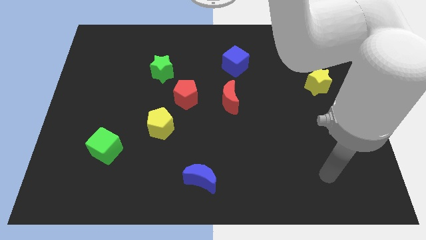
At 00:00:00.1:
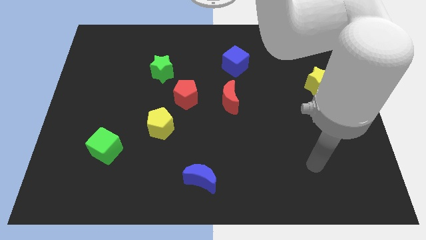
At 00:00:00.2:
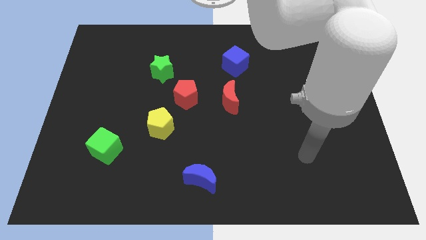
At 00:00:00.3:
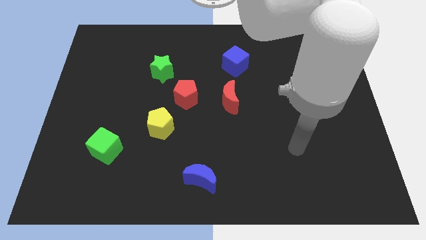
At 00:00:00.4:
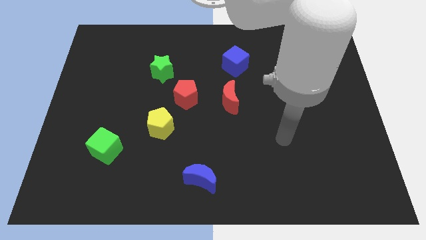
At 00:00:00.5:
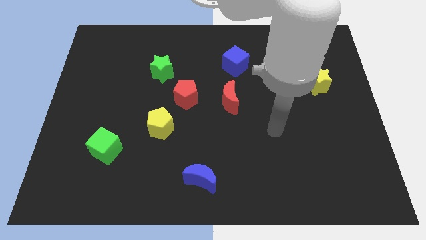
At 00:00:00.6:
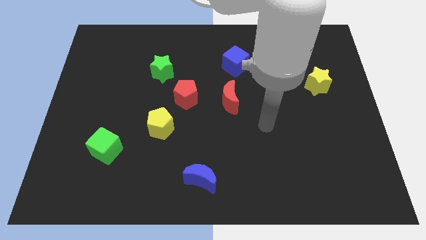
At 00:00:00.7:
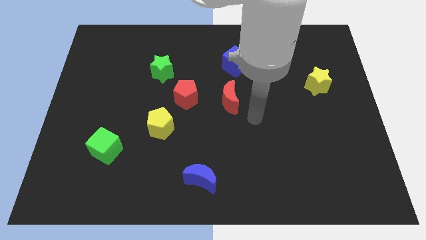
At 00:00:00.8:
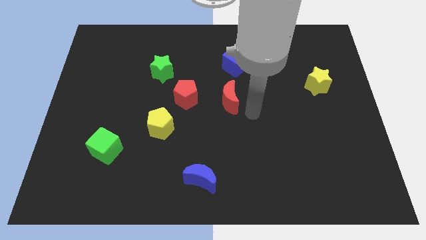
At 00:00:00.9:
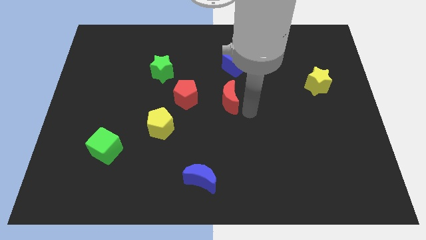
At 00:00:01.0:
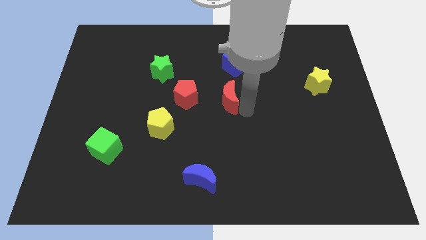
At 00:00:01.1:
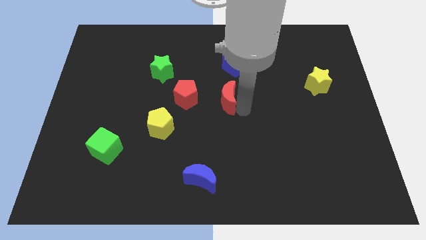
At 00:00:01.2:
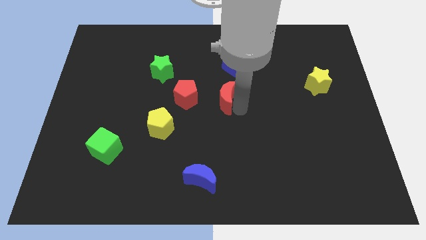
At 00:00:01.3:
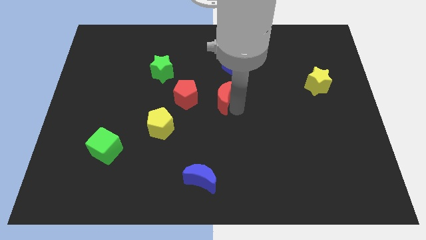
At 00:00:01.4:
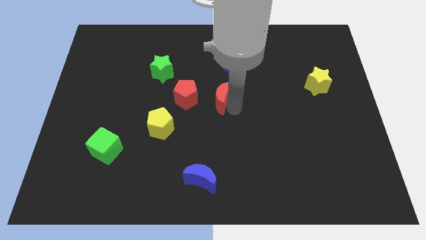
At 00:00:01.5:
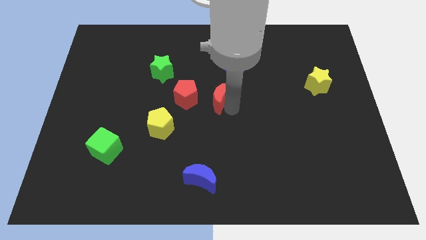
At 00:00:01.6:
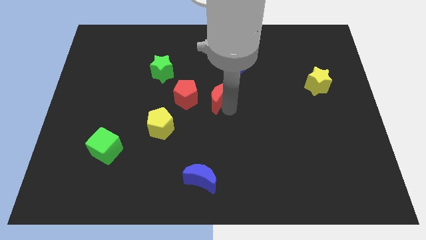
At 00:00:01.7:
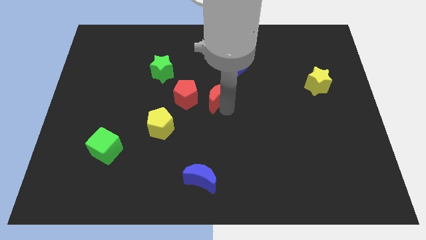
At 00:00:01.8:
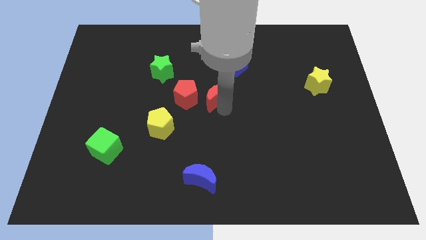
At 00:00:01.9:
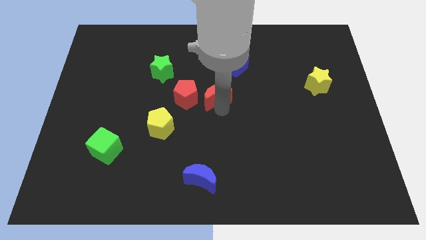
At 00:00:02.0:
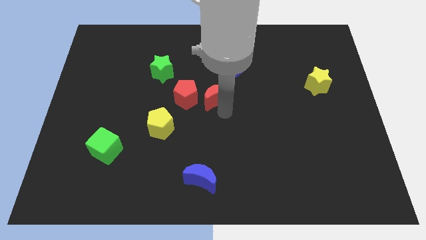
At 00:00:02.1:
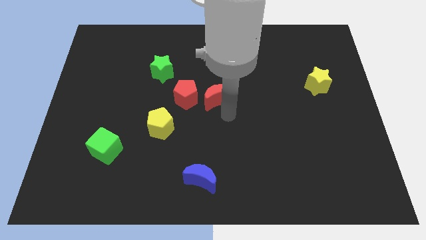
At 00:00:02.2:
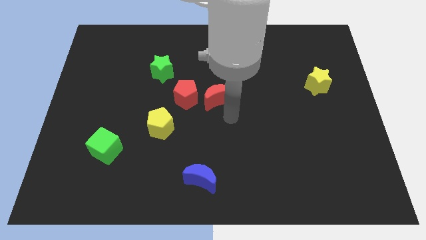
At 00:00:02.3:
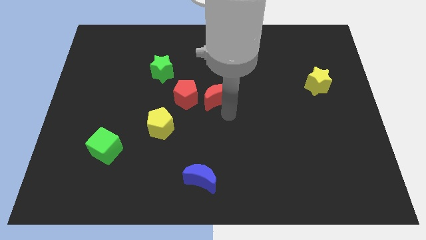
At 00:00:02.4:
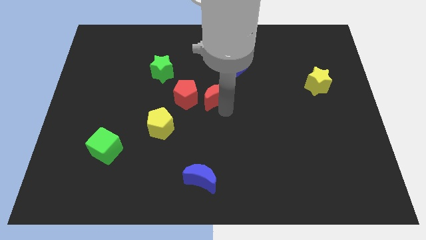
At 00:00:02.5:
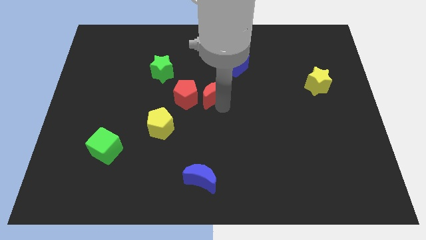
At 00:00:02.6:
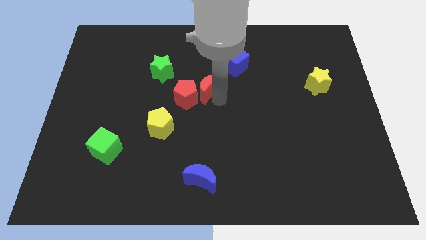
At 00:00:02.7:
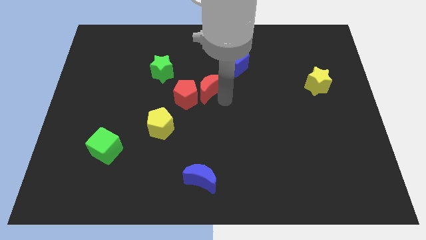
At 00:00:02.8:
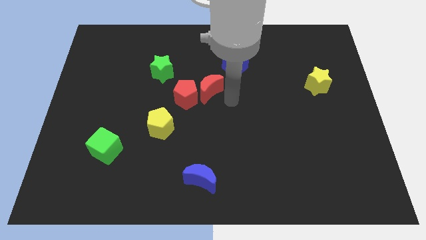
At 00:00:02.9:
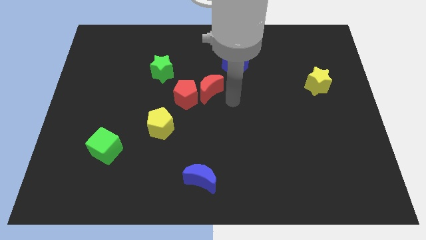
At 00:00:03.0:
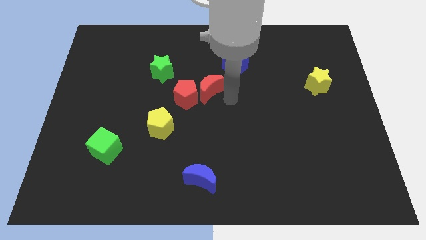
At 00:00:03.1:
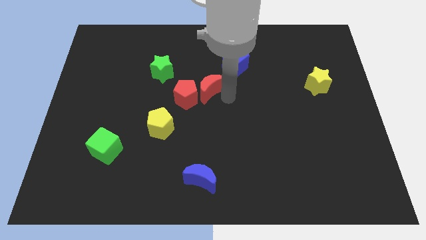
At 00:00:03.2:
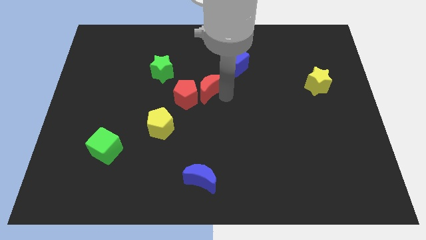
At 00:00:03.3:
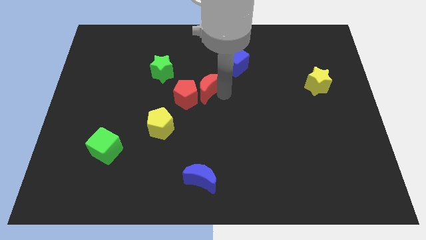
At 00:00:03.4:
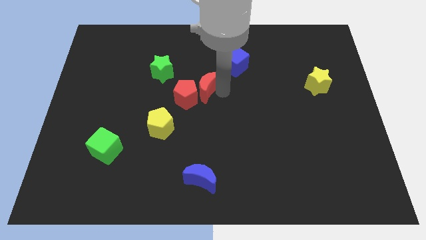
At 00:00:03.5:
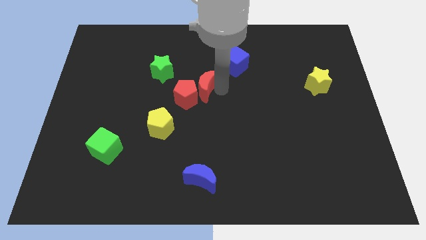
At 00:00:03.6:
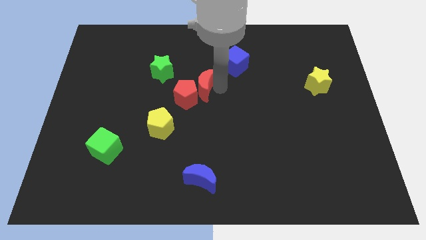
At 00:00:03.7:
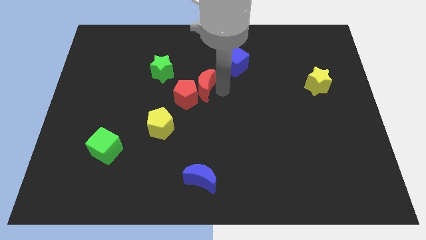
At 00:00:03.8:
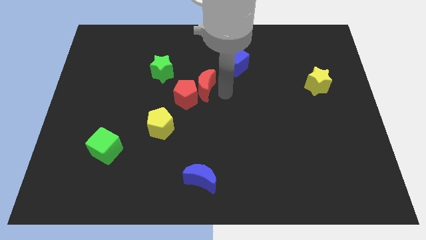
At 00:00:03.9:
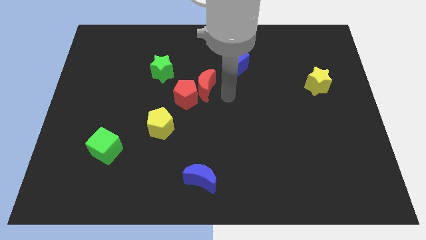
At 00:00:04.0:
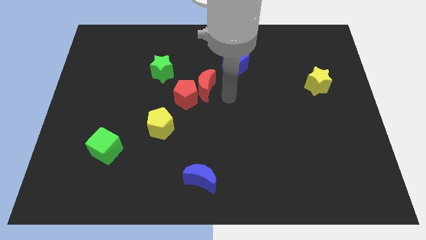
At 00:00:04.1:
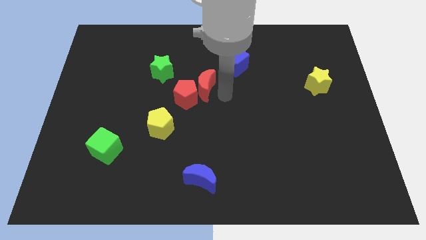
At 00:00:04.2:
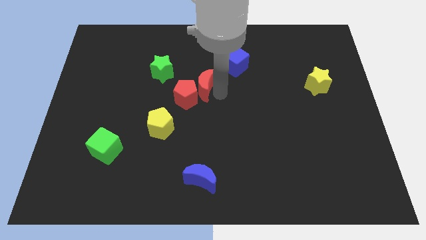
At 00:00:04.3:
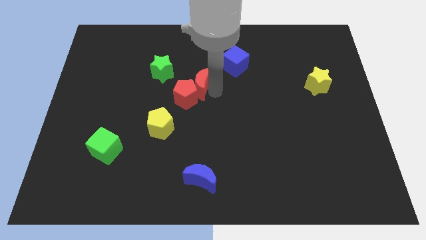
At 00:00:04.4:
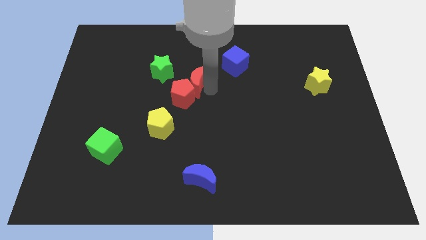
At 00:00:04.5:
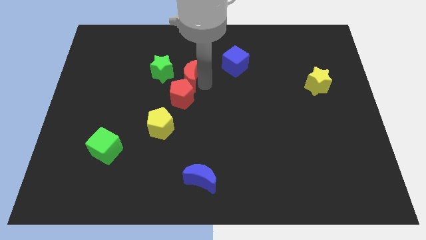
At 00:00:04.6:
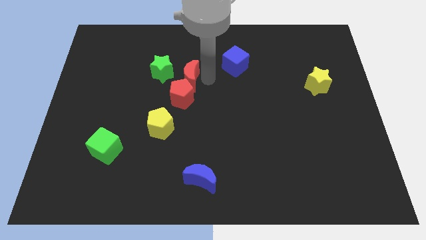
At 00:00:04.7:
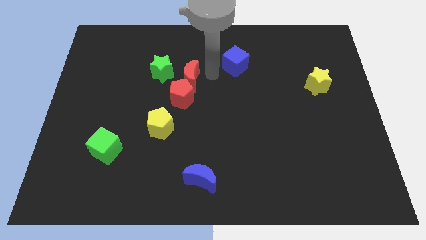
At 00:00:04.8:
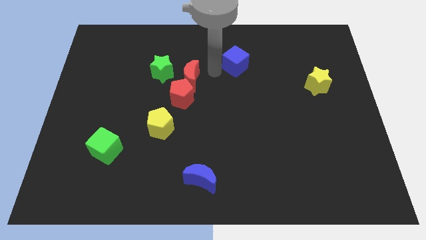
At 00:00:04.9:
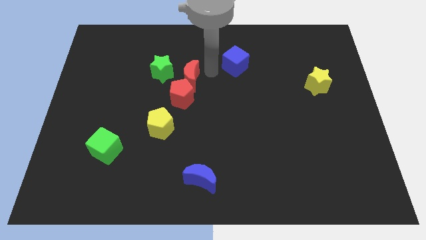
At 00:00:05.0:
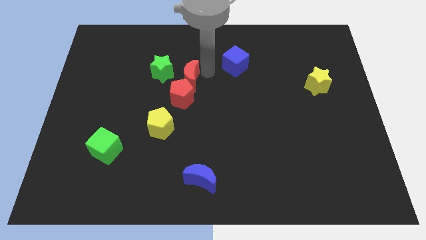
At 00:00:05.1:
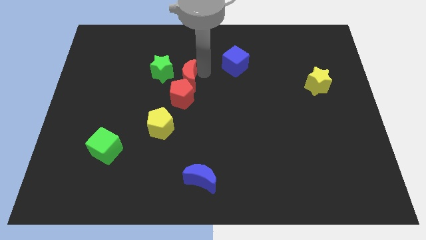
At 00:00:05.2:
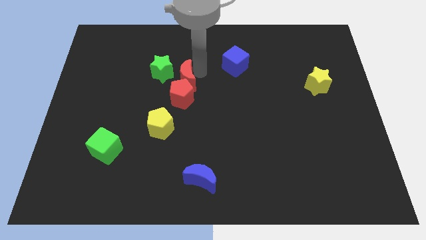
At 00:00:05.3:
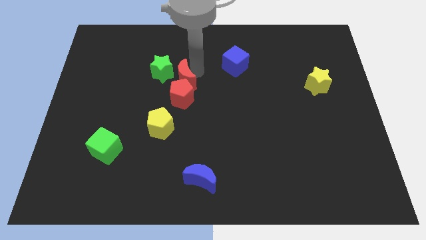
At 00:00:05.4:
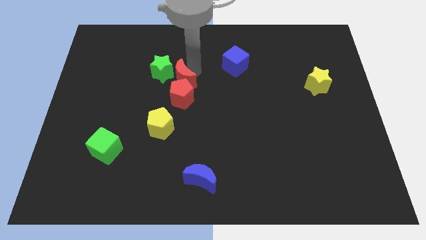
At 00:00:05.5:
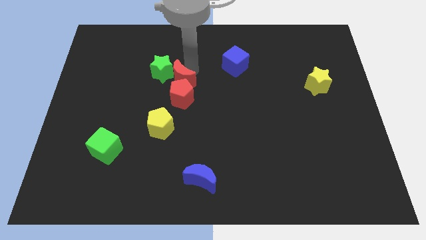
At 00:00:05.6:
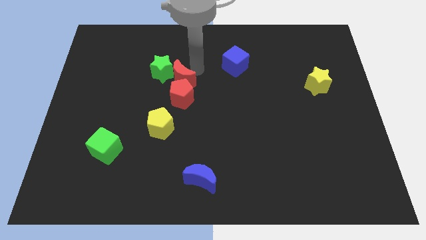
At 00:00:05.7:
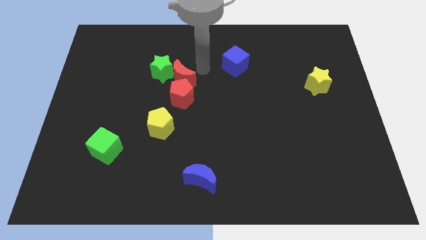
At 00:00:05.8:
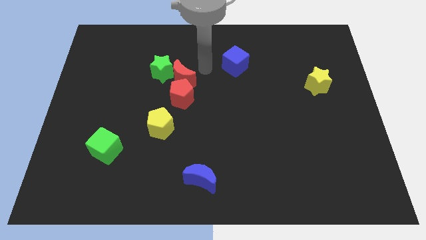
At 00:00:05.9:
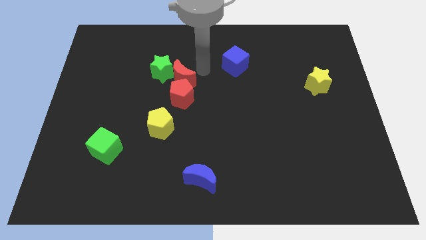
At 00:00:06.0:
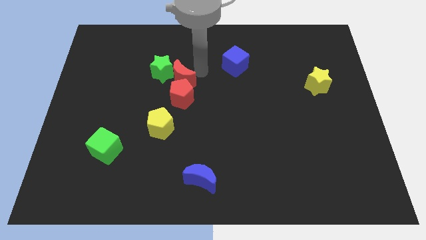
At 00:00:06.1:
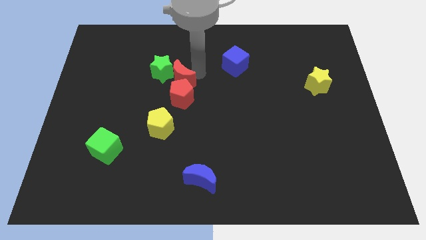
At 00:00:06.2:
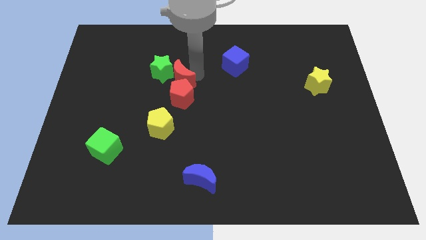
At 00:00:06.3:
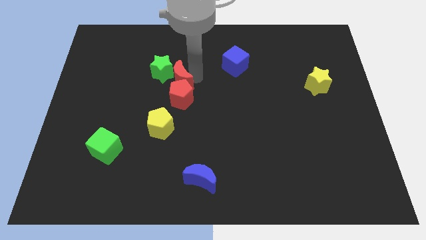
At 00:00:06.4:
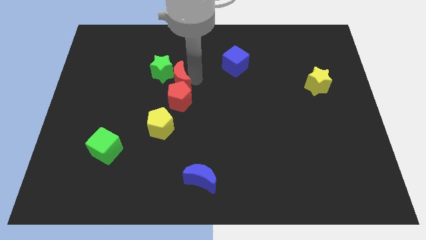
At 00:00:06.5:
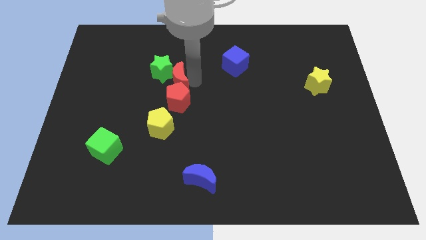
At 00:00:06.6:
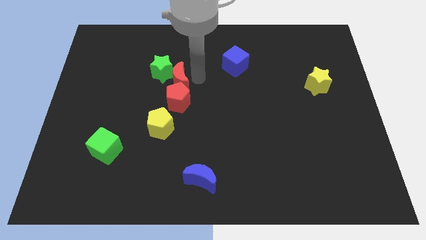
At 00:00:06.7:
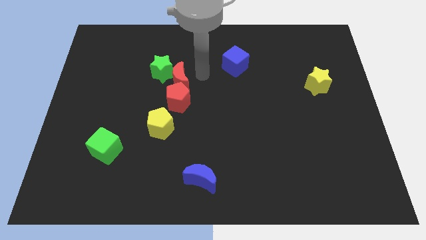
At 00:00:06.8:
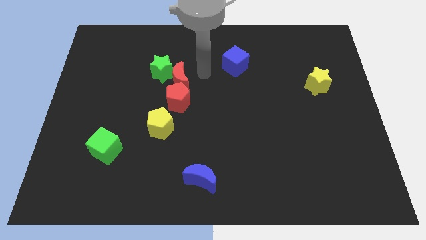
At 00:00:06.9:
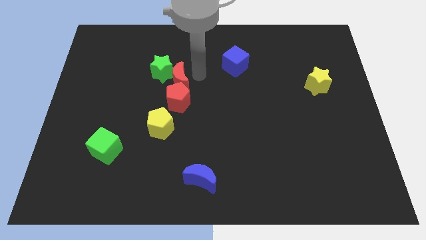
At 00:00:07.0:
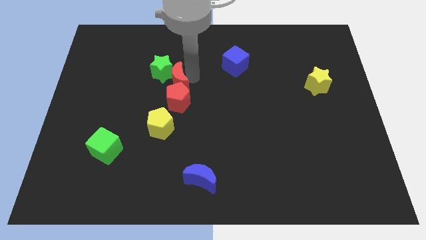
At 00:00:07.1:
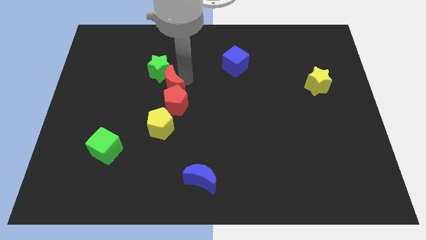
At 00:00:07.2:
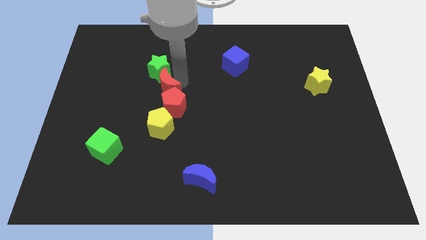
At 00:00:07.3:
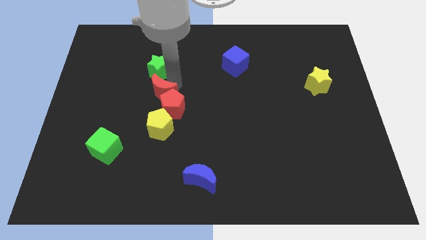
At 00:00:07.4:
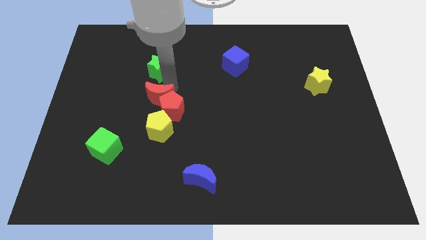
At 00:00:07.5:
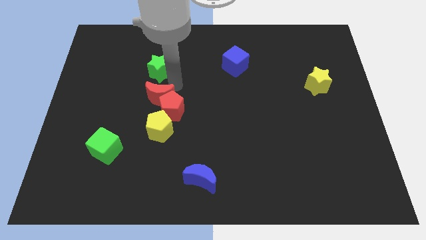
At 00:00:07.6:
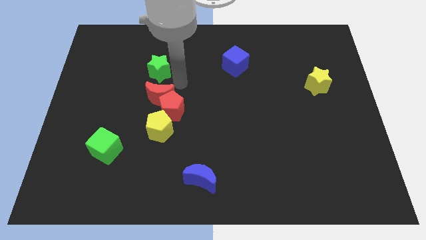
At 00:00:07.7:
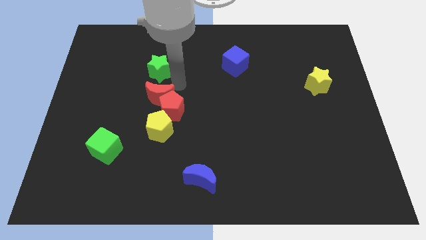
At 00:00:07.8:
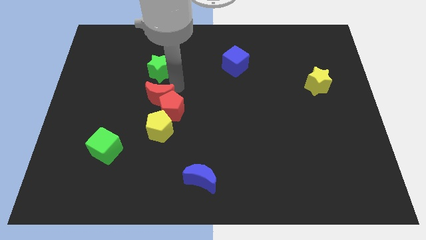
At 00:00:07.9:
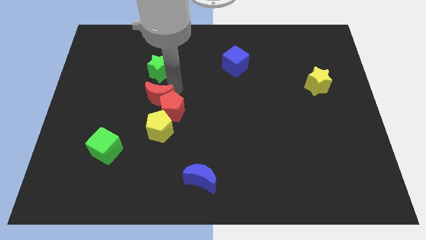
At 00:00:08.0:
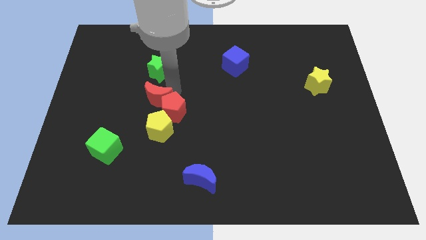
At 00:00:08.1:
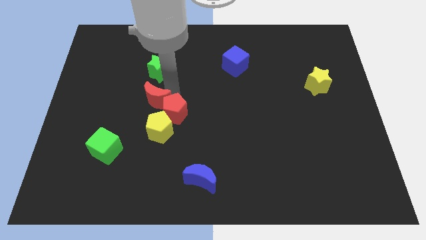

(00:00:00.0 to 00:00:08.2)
put the red moon to the top left side of the yellow pentagon
